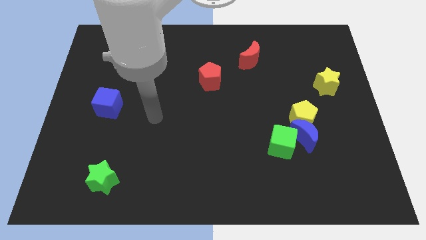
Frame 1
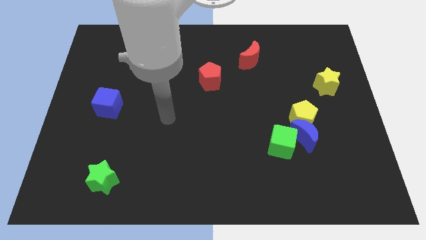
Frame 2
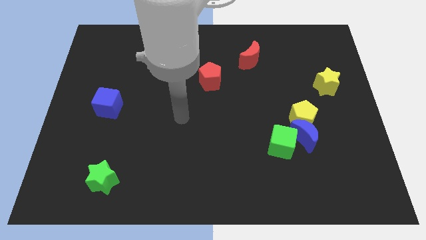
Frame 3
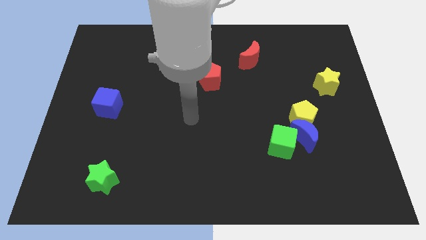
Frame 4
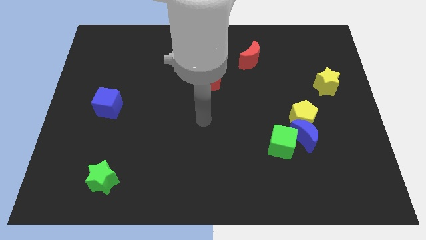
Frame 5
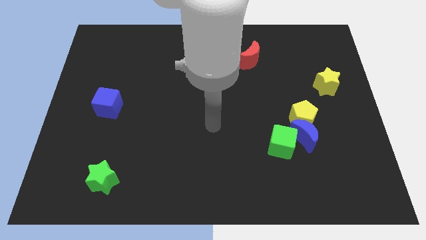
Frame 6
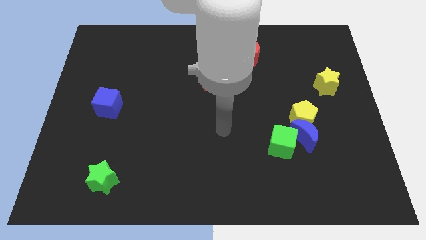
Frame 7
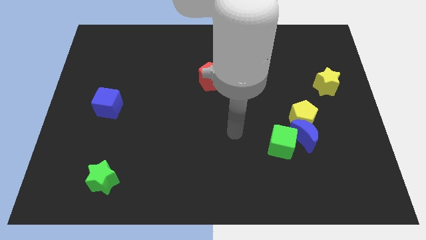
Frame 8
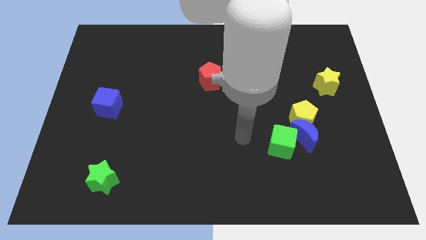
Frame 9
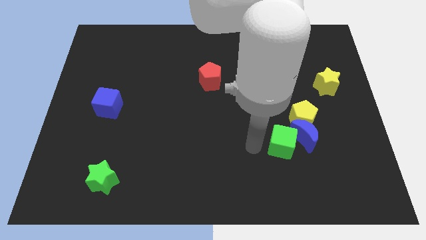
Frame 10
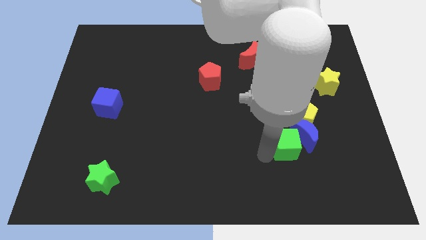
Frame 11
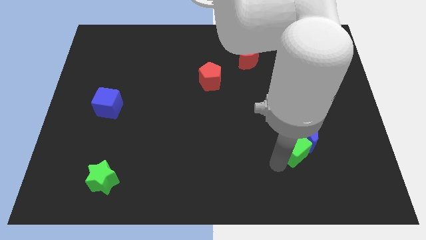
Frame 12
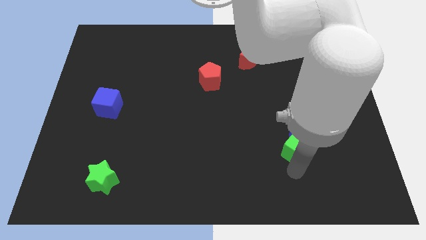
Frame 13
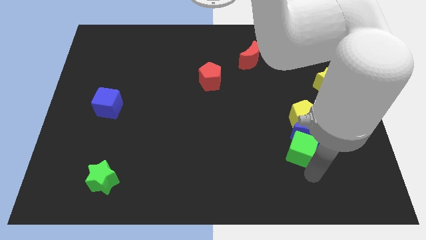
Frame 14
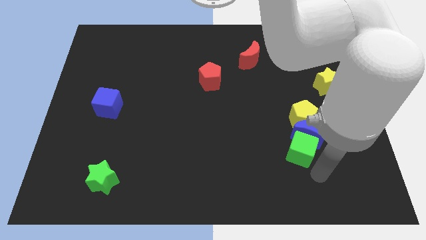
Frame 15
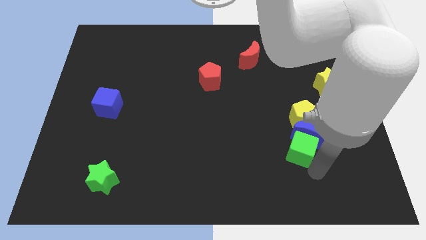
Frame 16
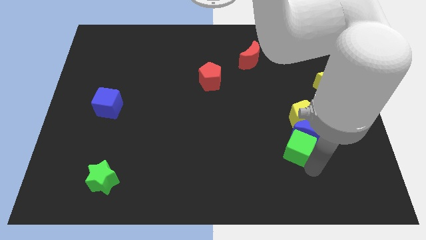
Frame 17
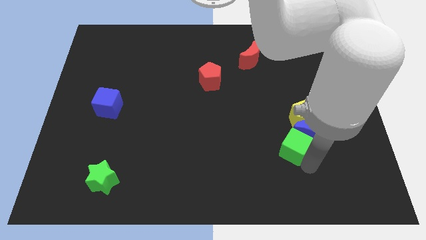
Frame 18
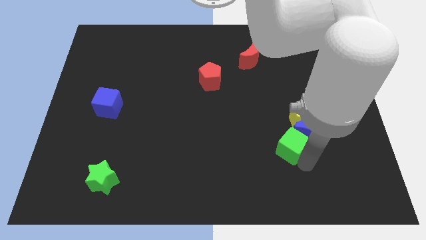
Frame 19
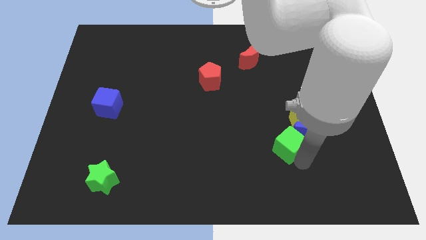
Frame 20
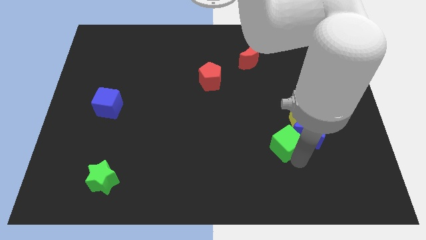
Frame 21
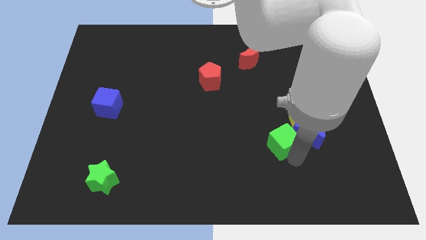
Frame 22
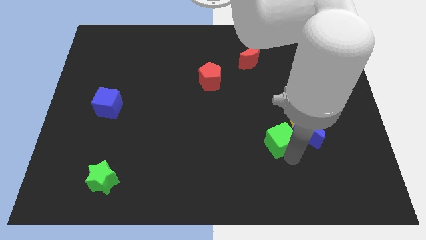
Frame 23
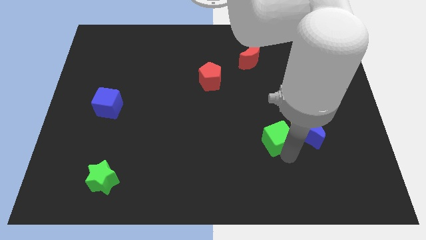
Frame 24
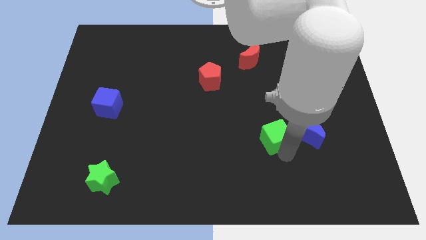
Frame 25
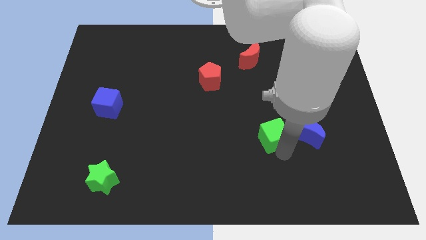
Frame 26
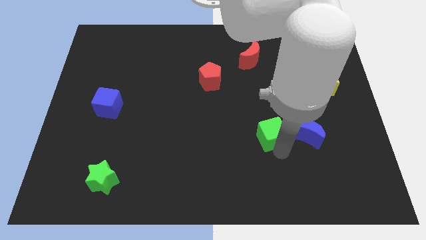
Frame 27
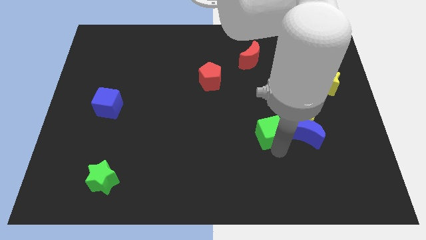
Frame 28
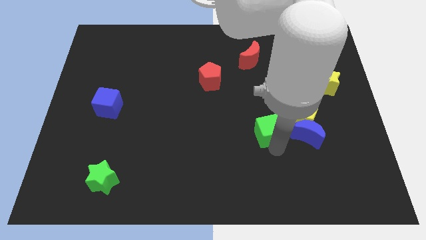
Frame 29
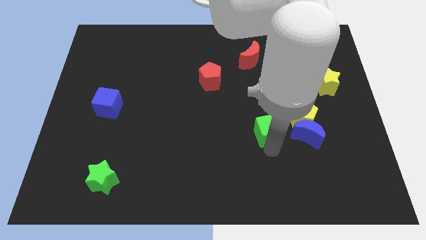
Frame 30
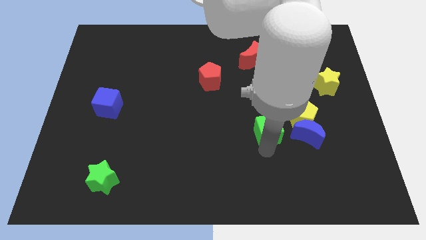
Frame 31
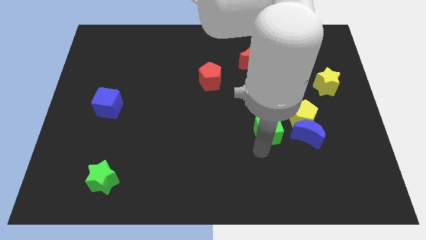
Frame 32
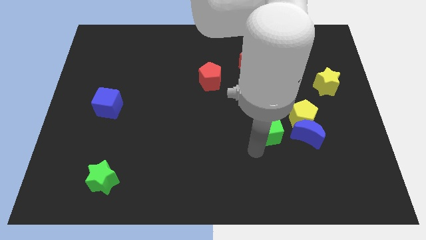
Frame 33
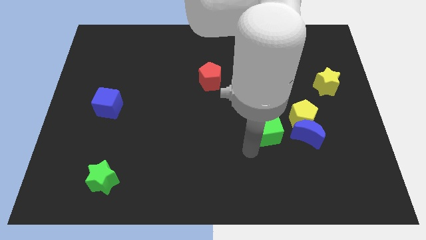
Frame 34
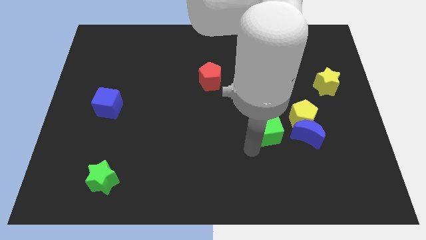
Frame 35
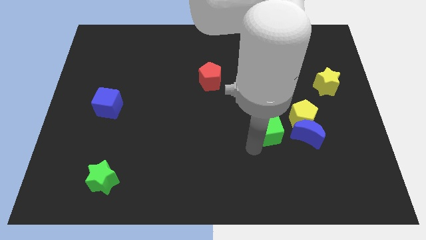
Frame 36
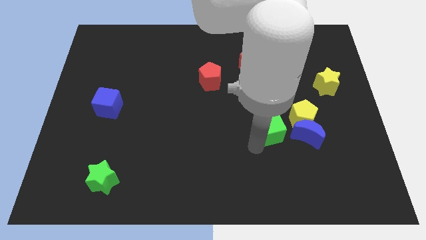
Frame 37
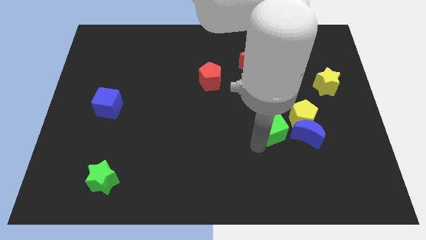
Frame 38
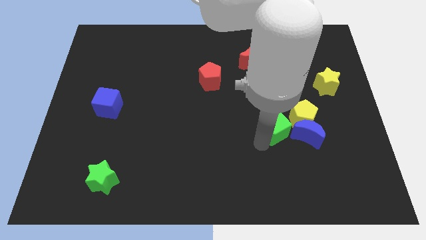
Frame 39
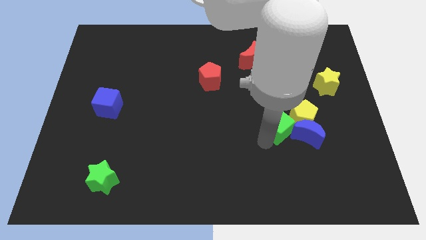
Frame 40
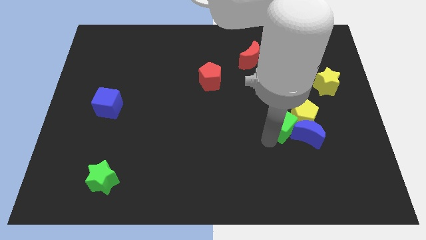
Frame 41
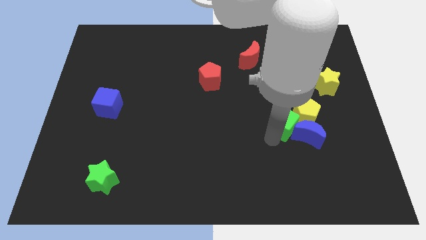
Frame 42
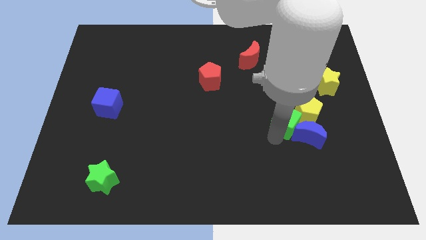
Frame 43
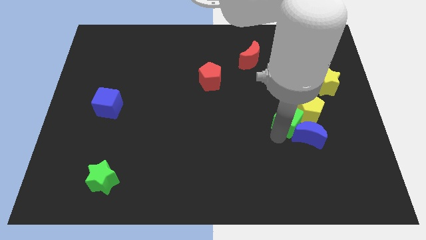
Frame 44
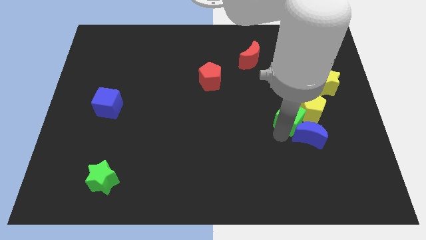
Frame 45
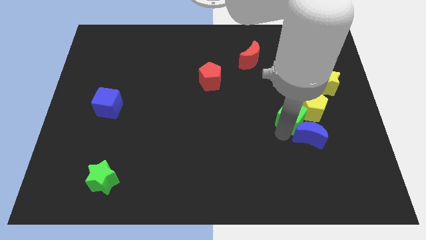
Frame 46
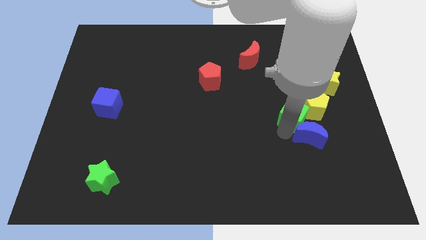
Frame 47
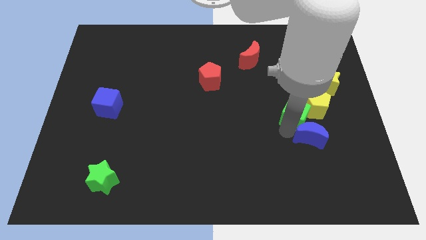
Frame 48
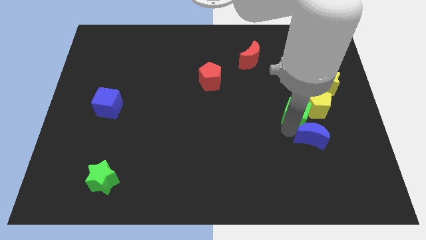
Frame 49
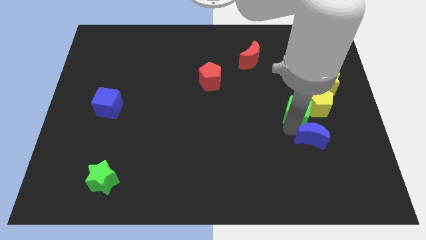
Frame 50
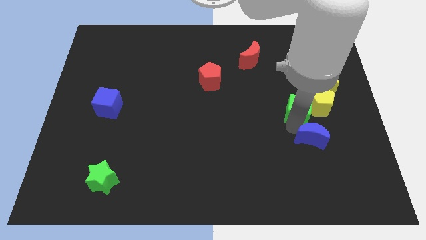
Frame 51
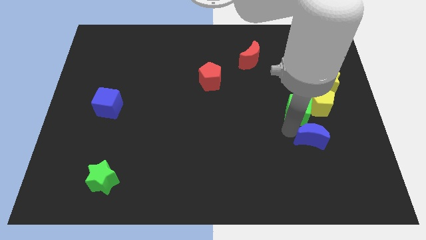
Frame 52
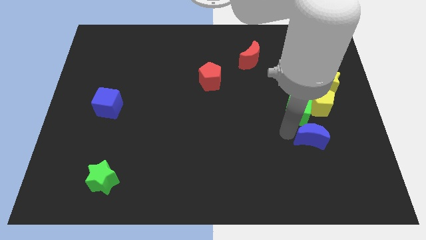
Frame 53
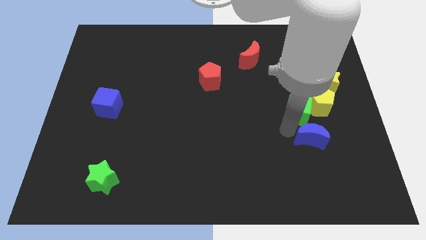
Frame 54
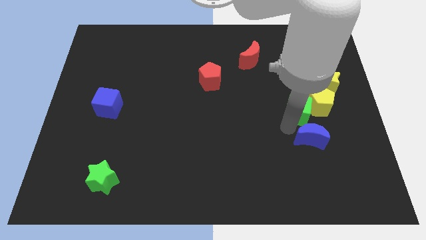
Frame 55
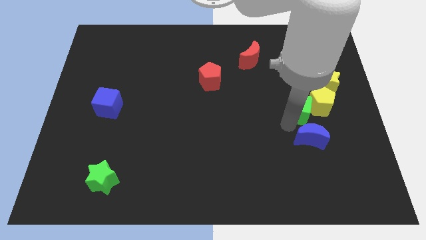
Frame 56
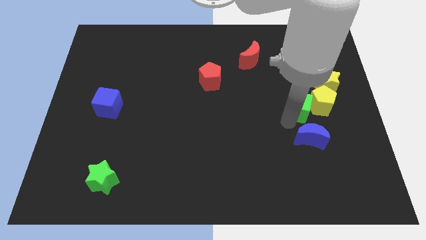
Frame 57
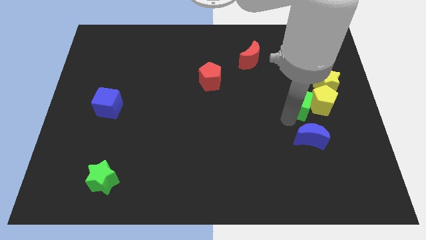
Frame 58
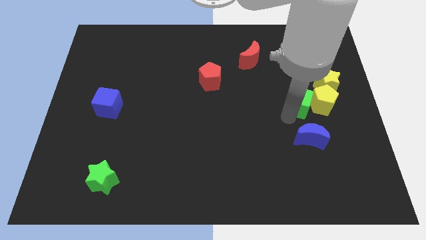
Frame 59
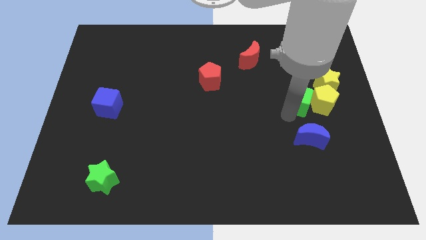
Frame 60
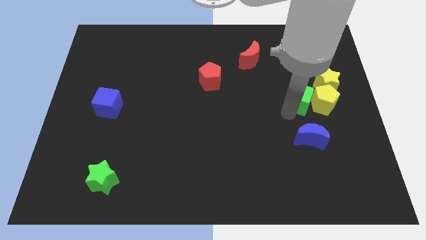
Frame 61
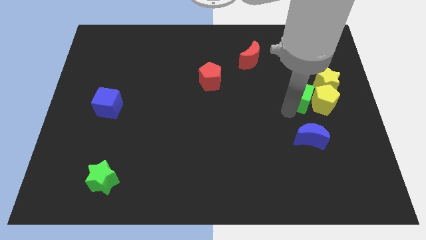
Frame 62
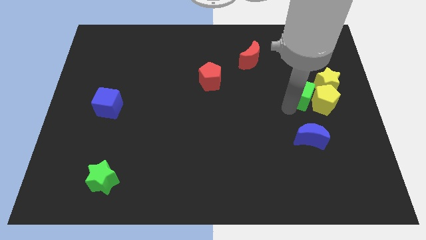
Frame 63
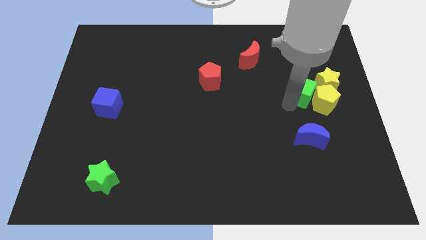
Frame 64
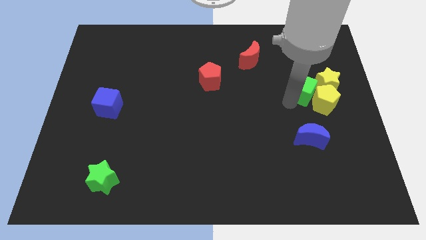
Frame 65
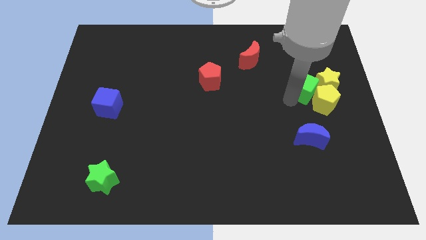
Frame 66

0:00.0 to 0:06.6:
push the green cube to the yellow star

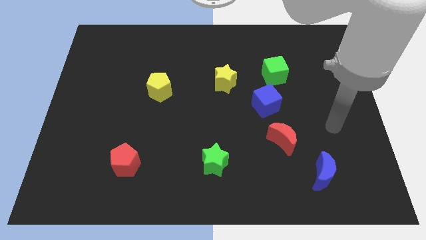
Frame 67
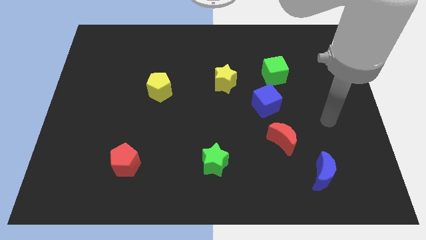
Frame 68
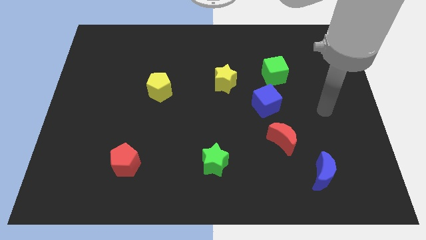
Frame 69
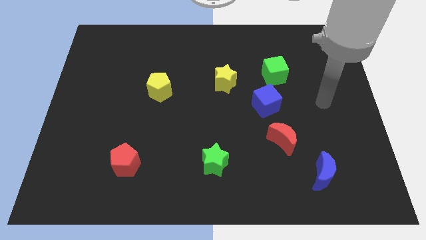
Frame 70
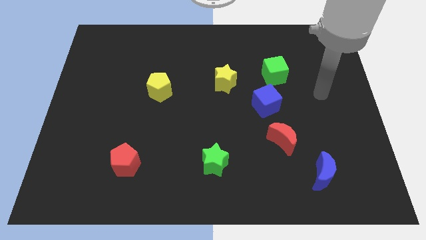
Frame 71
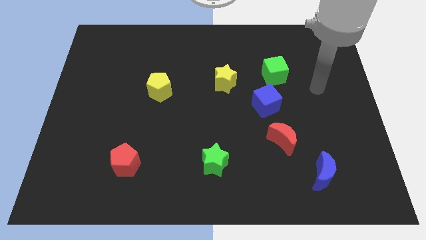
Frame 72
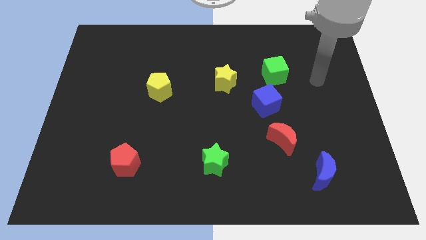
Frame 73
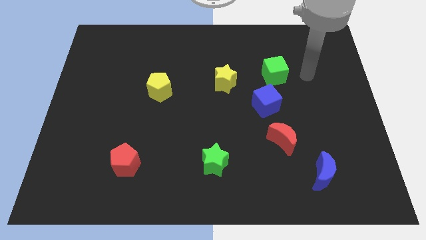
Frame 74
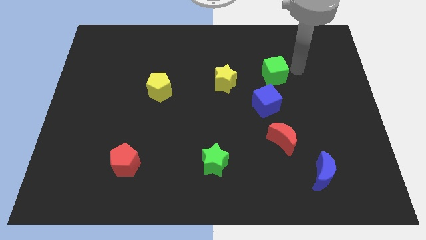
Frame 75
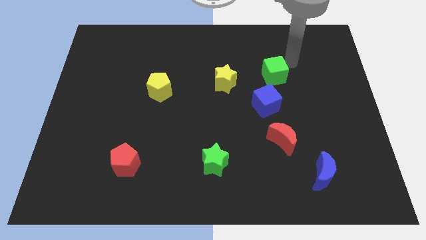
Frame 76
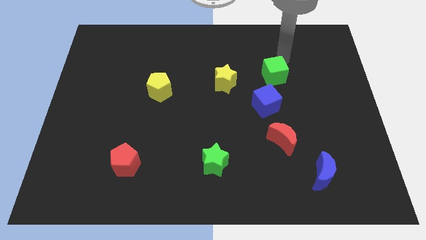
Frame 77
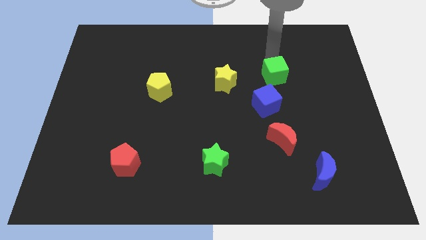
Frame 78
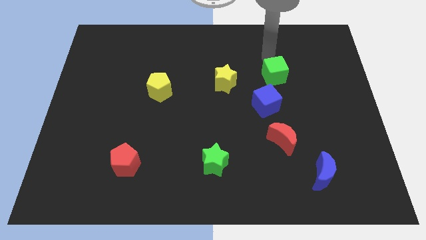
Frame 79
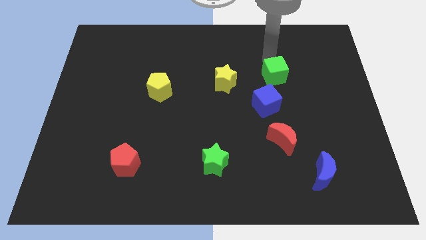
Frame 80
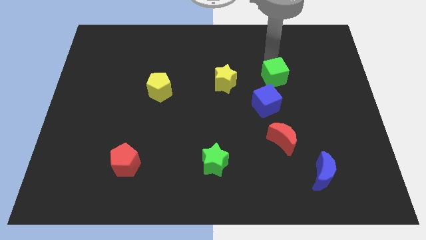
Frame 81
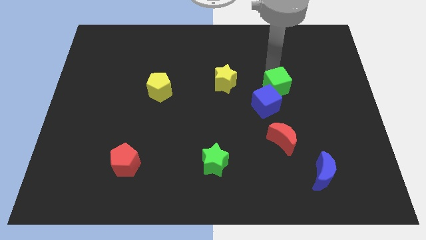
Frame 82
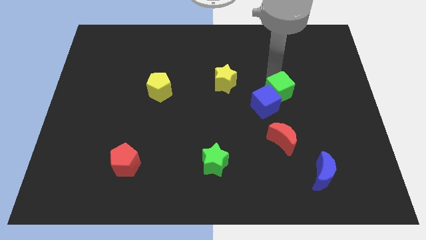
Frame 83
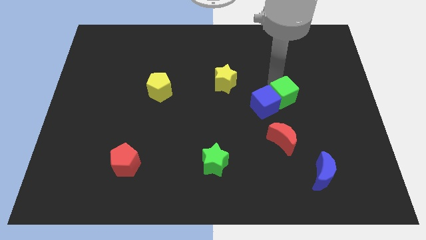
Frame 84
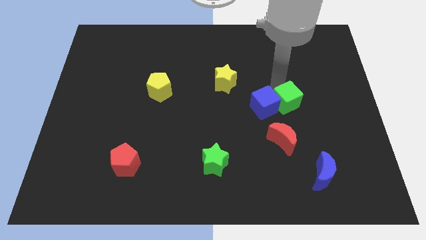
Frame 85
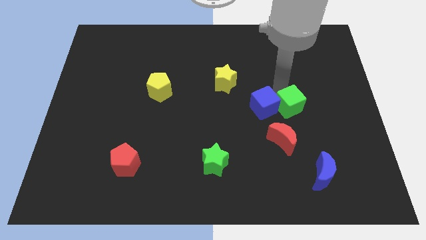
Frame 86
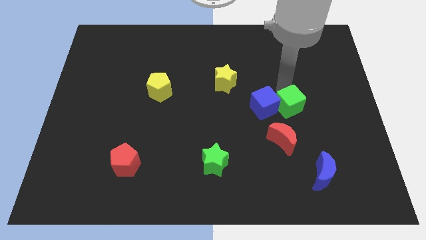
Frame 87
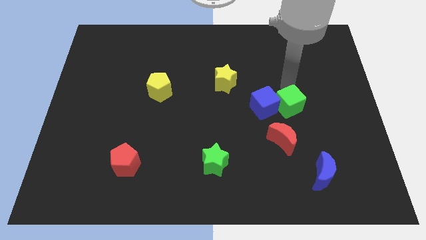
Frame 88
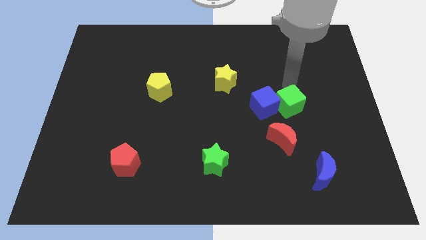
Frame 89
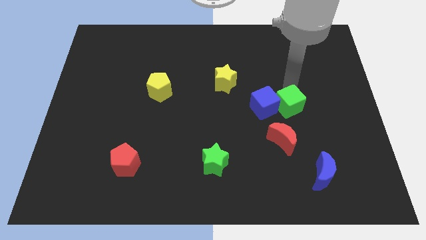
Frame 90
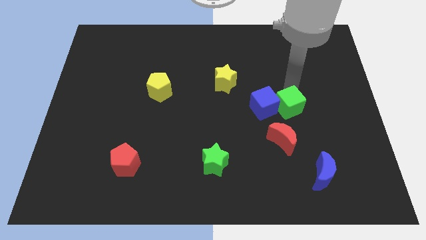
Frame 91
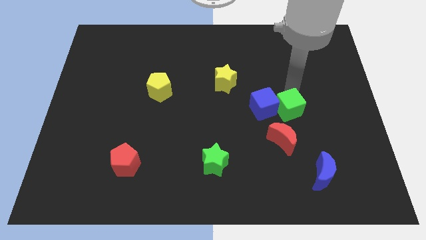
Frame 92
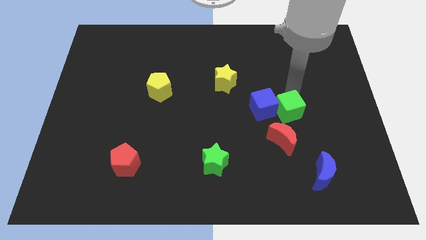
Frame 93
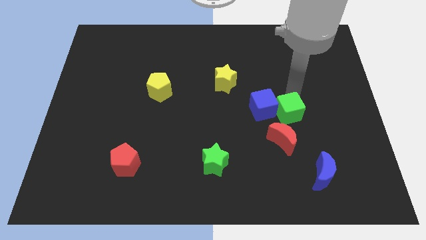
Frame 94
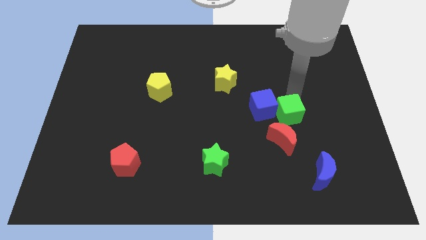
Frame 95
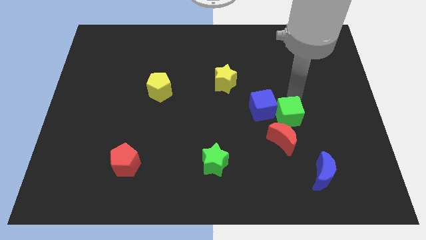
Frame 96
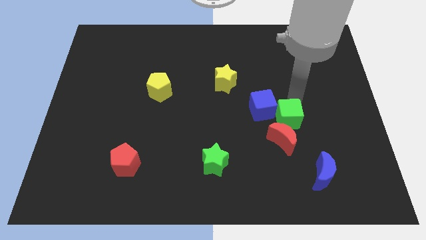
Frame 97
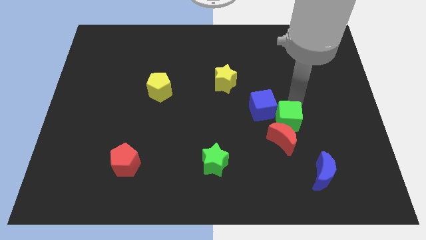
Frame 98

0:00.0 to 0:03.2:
push the green cube to the red moon
